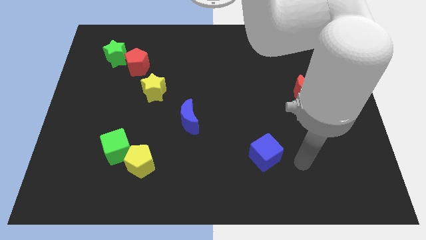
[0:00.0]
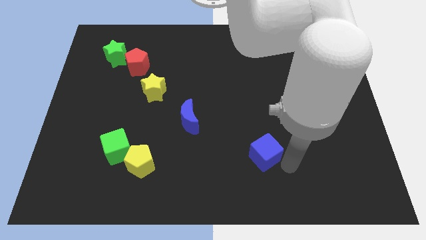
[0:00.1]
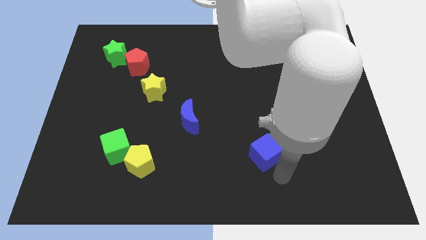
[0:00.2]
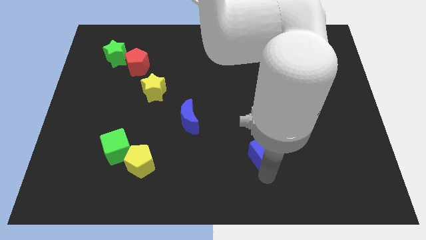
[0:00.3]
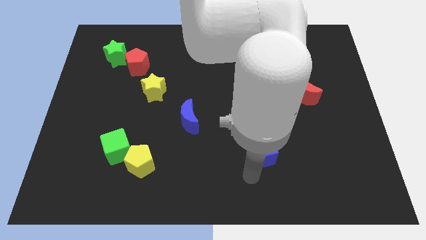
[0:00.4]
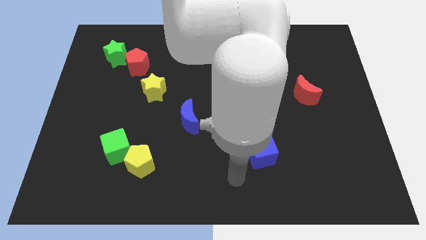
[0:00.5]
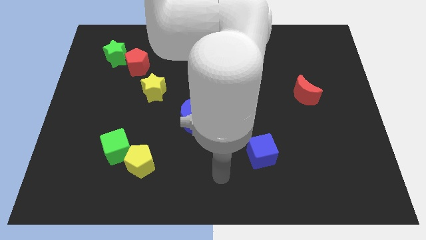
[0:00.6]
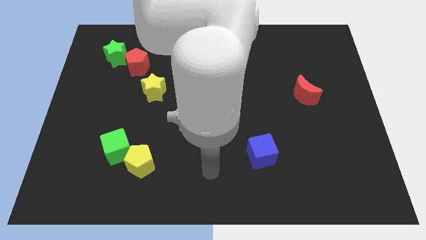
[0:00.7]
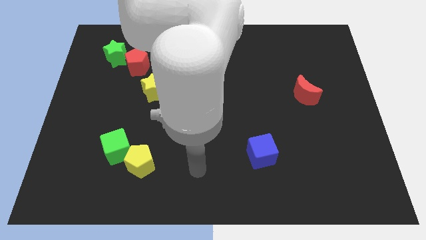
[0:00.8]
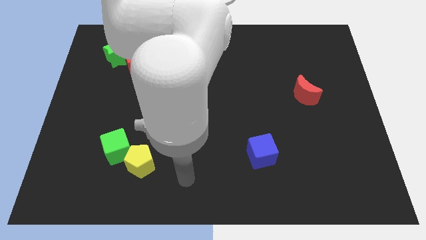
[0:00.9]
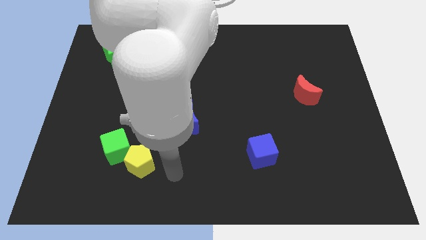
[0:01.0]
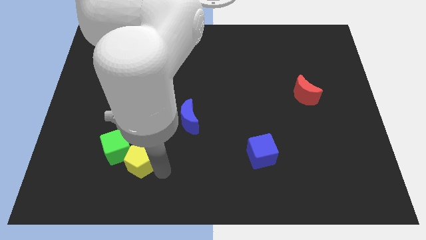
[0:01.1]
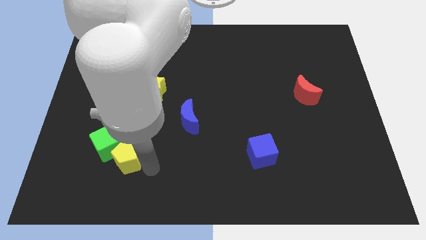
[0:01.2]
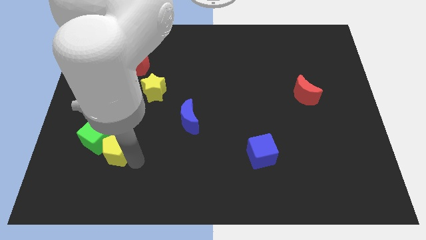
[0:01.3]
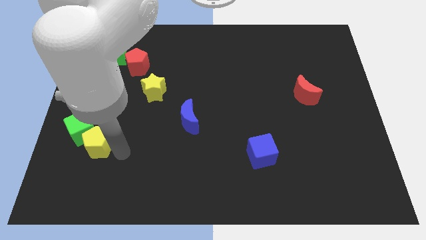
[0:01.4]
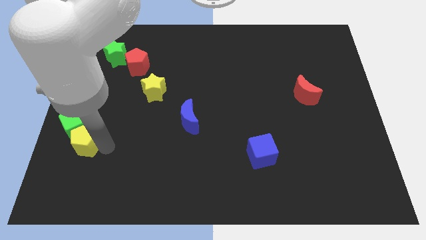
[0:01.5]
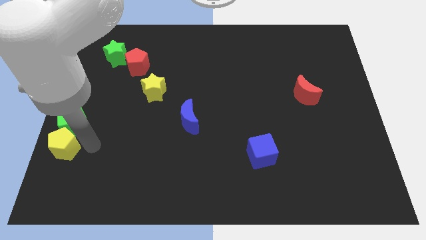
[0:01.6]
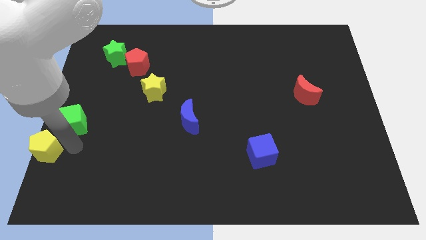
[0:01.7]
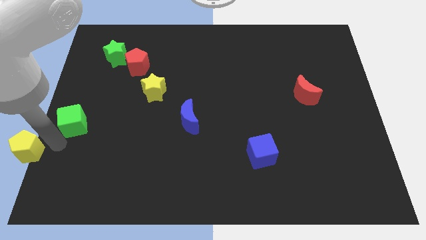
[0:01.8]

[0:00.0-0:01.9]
separate the green cube from the yellow pentagon

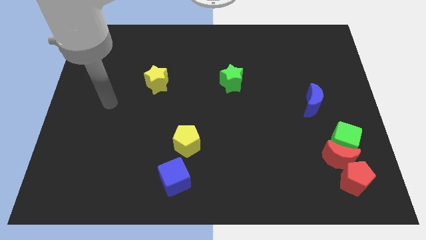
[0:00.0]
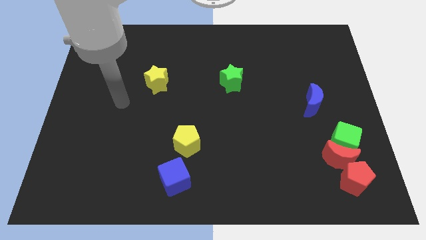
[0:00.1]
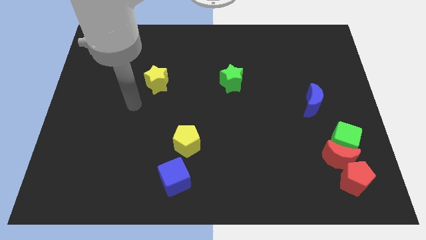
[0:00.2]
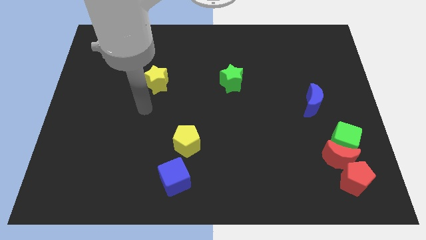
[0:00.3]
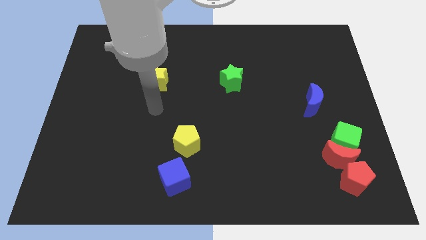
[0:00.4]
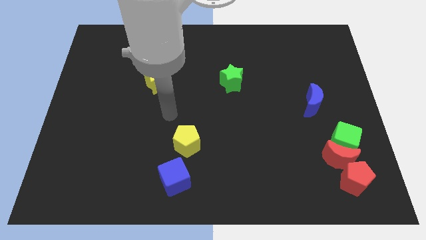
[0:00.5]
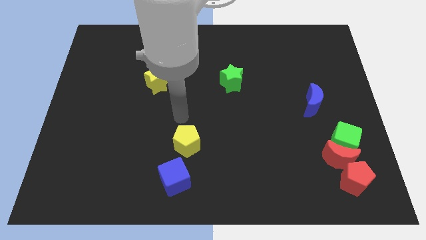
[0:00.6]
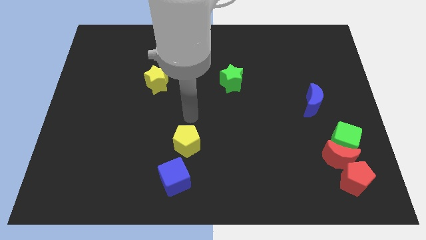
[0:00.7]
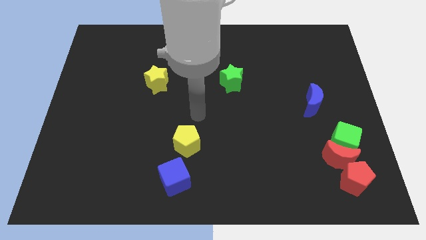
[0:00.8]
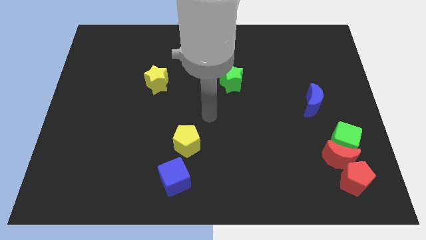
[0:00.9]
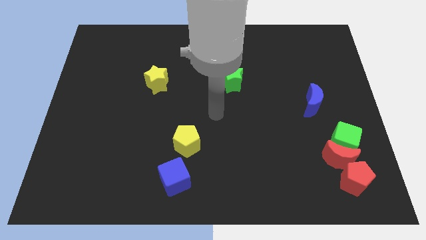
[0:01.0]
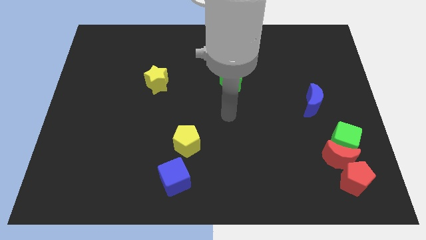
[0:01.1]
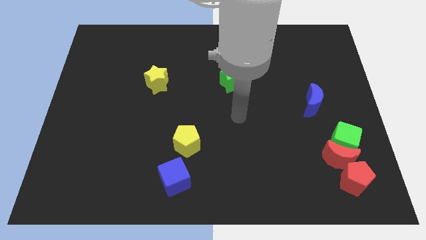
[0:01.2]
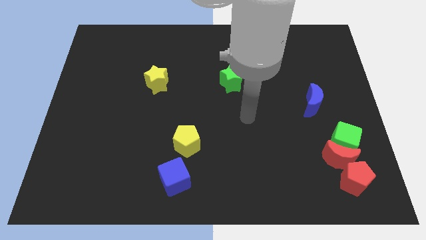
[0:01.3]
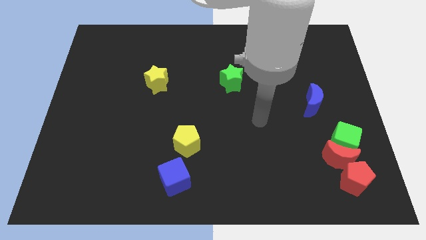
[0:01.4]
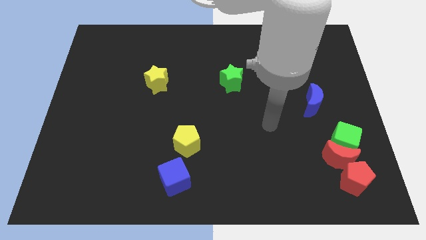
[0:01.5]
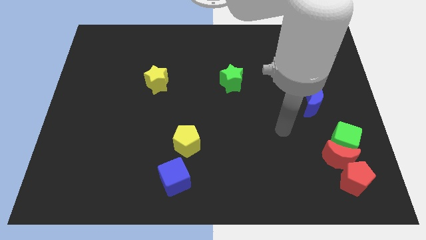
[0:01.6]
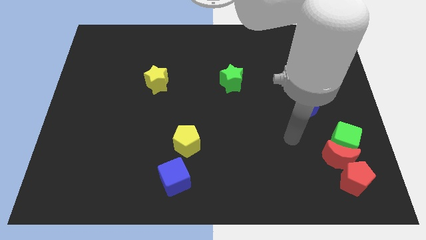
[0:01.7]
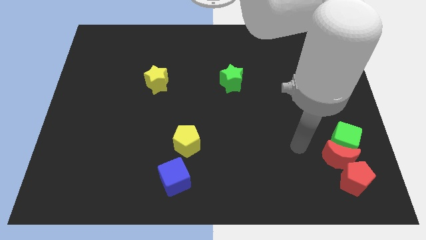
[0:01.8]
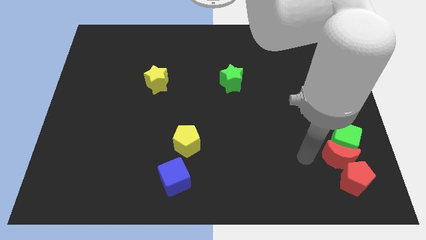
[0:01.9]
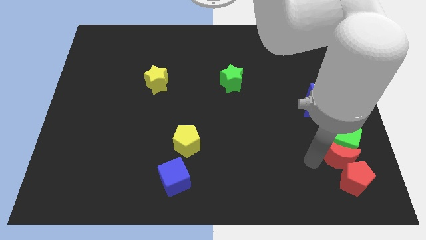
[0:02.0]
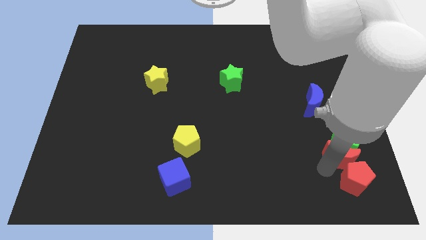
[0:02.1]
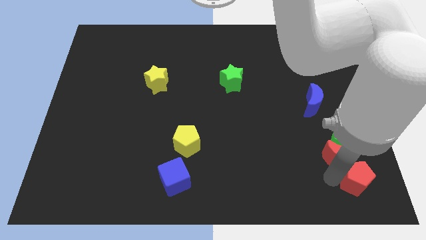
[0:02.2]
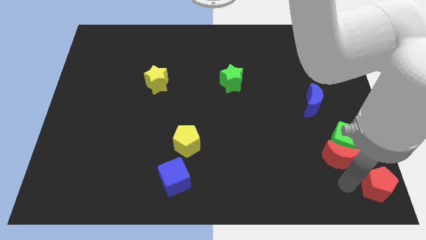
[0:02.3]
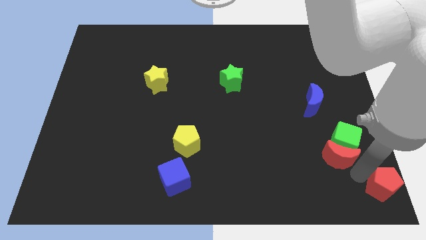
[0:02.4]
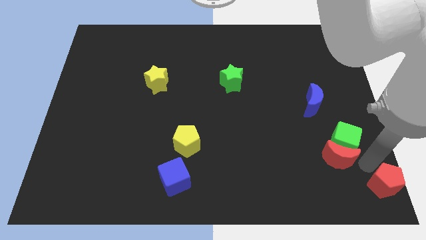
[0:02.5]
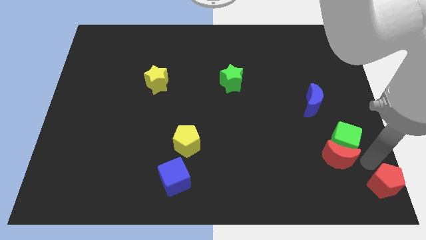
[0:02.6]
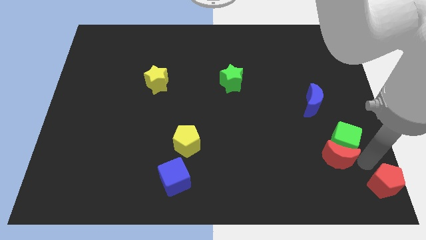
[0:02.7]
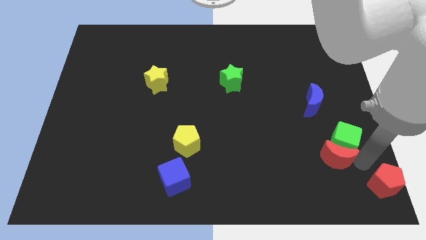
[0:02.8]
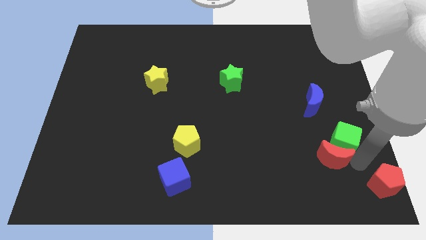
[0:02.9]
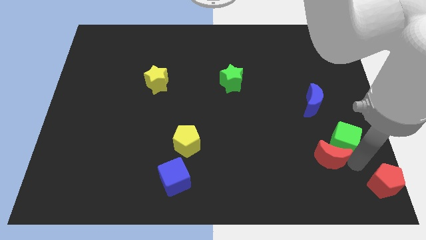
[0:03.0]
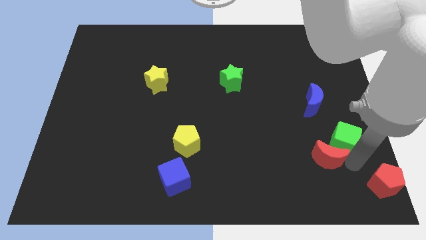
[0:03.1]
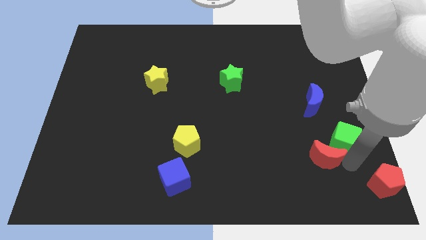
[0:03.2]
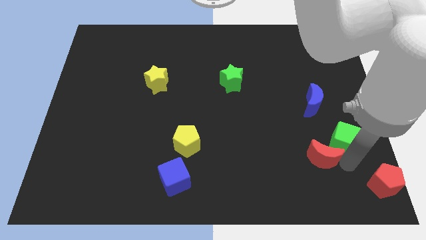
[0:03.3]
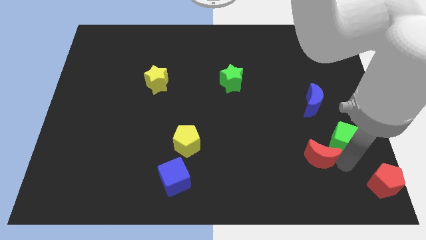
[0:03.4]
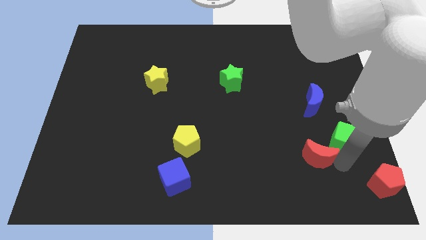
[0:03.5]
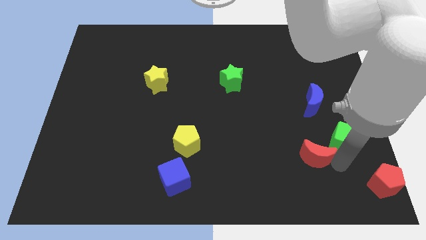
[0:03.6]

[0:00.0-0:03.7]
pull the red moon apart from the green cube and red pentagon

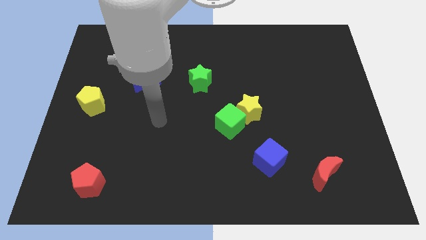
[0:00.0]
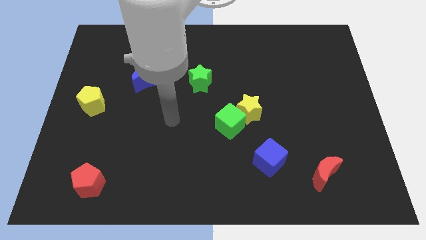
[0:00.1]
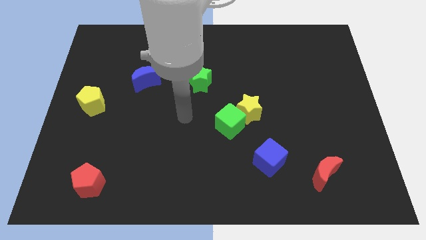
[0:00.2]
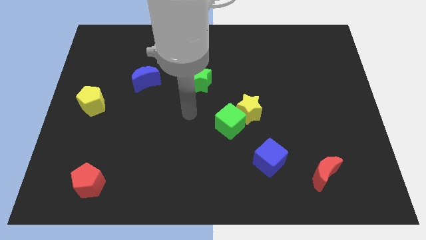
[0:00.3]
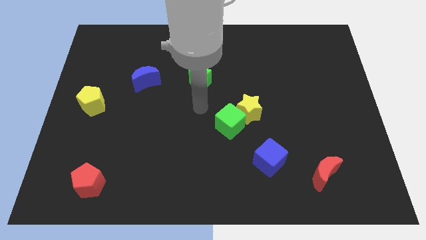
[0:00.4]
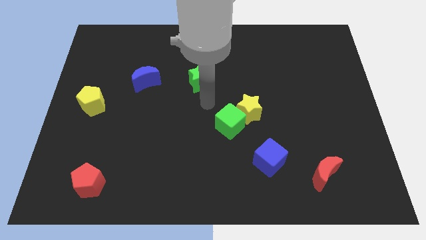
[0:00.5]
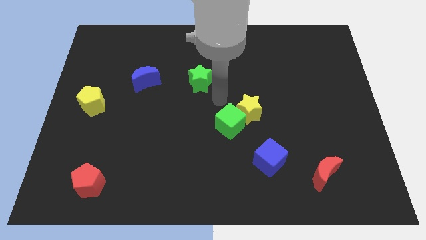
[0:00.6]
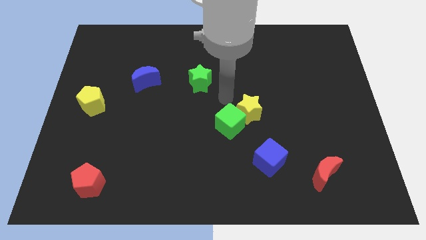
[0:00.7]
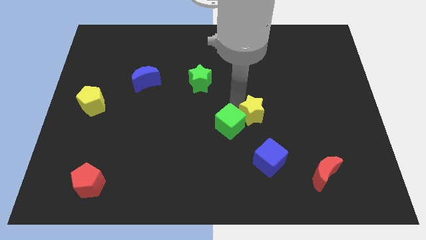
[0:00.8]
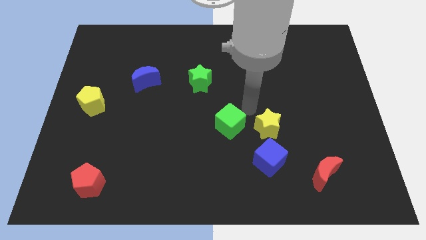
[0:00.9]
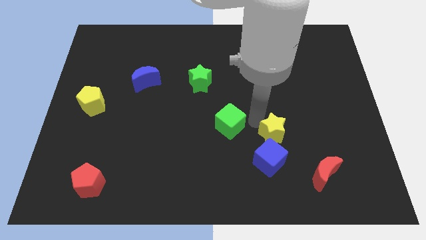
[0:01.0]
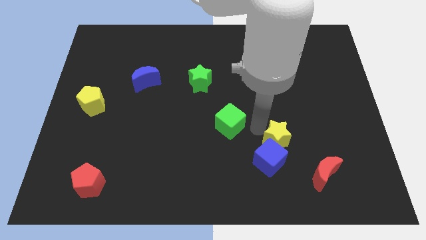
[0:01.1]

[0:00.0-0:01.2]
pull the green cube apart from the yellow star

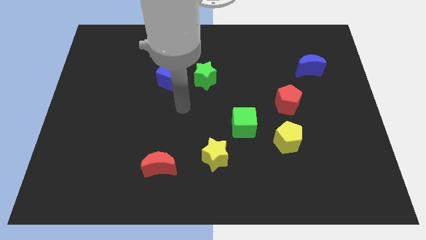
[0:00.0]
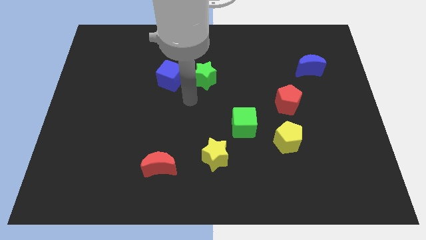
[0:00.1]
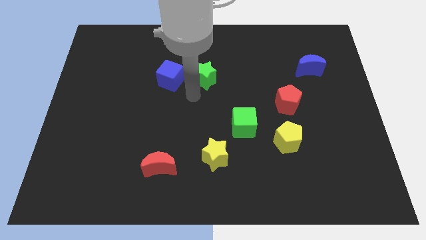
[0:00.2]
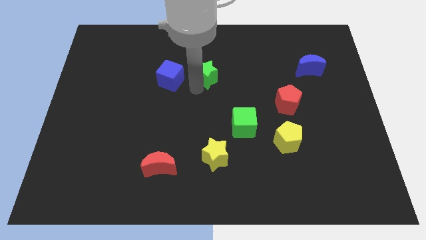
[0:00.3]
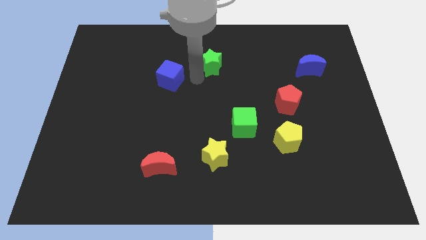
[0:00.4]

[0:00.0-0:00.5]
pull the blue cube apart from the green star

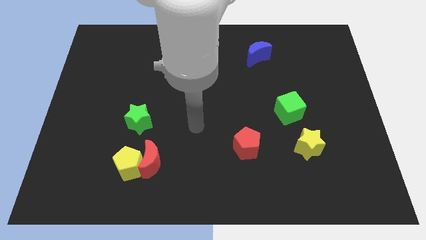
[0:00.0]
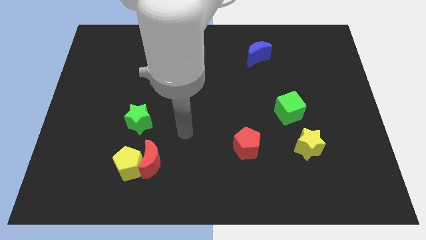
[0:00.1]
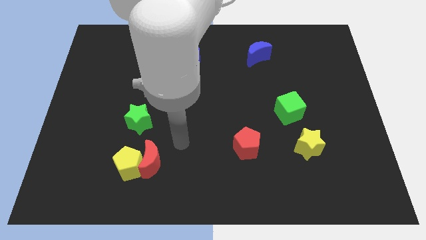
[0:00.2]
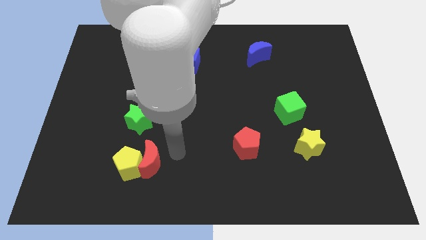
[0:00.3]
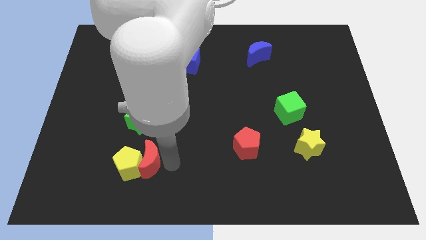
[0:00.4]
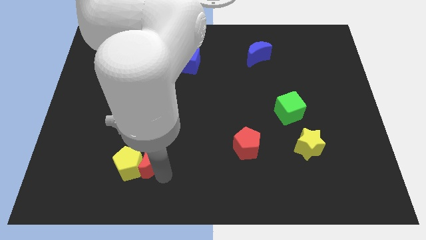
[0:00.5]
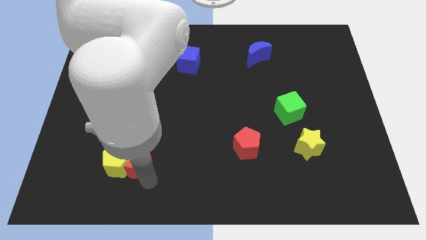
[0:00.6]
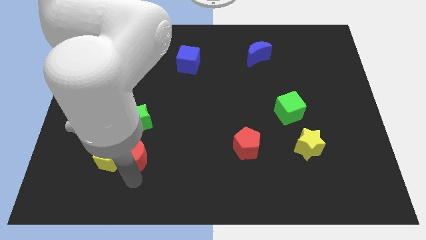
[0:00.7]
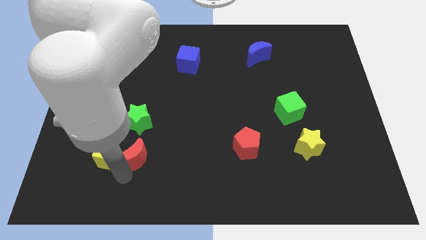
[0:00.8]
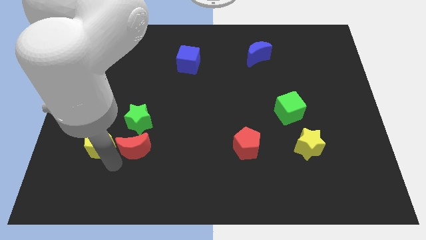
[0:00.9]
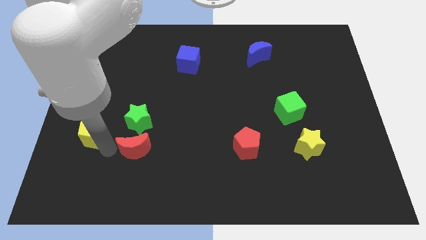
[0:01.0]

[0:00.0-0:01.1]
move the red moon away from the yellow pentagon

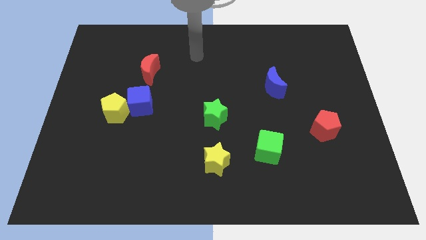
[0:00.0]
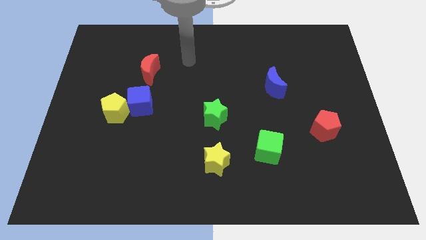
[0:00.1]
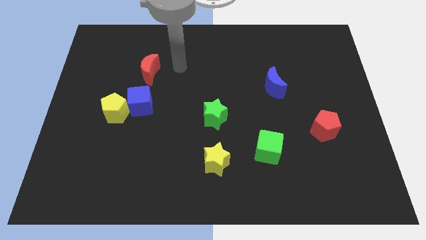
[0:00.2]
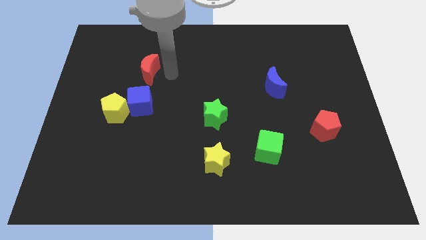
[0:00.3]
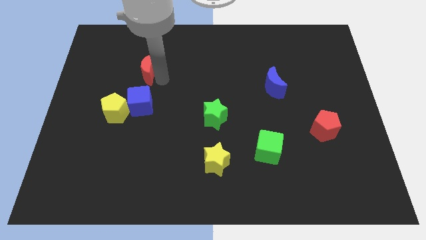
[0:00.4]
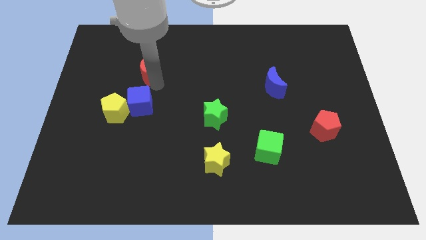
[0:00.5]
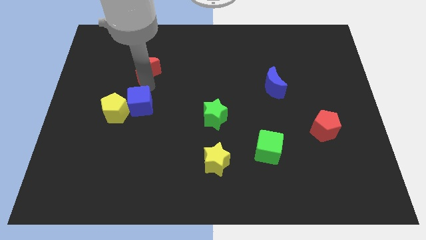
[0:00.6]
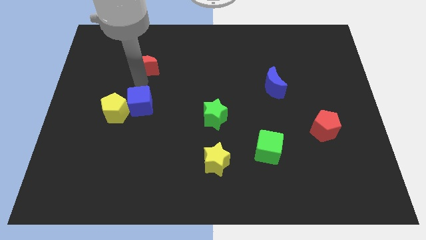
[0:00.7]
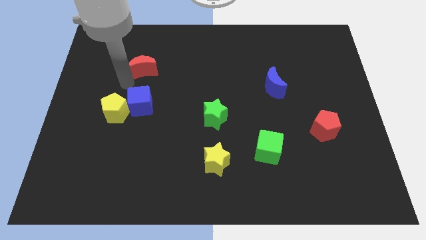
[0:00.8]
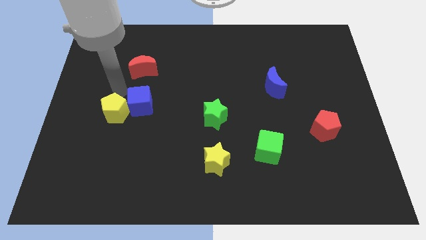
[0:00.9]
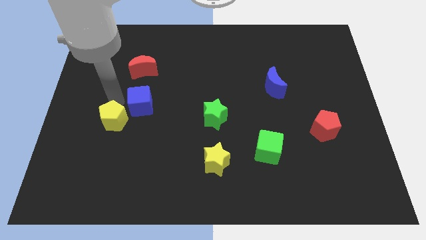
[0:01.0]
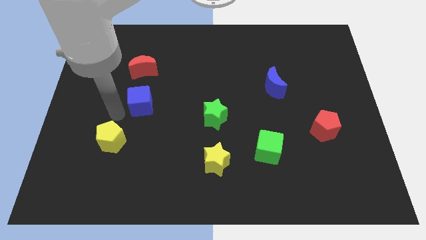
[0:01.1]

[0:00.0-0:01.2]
pull the blue cube apart from the yellow pentagon
